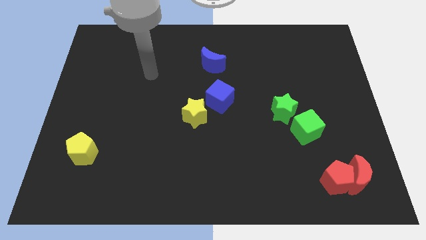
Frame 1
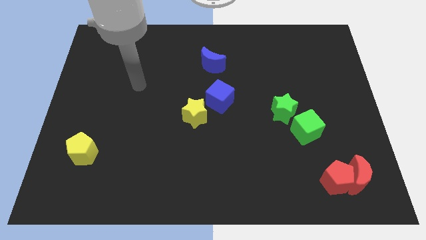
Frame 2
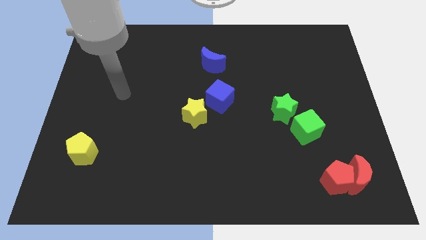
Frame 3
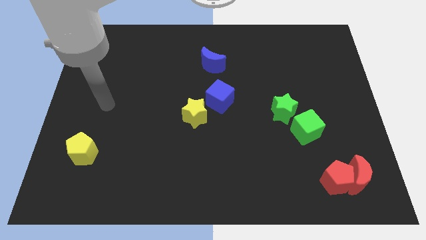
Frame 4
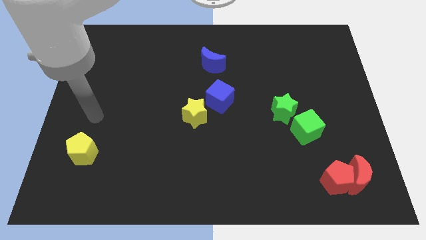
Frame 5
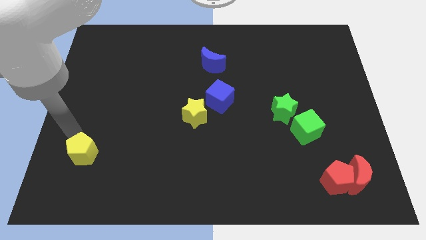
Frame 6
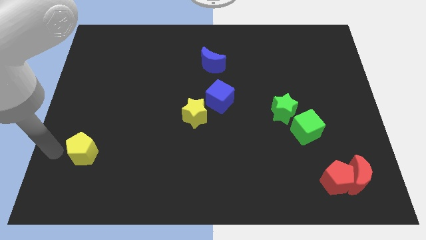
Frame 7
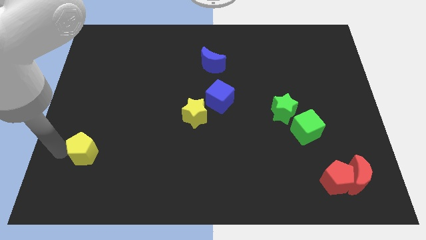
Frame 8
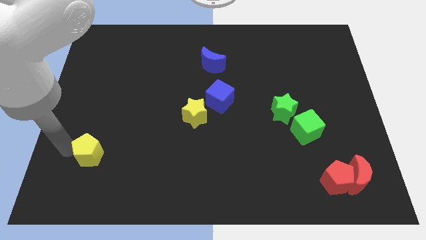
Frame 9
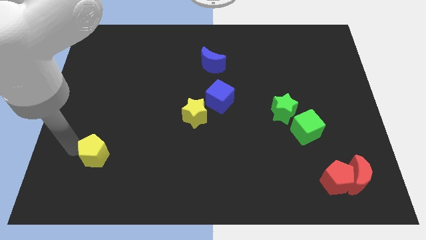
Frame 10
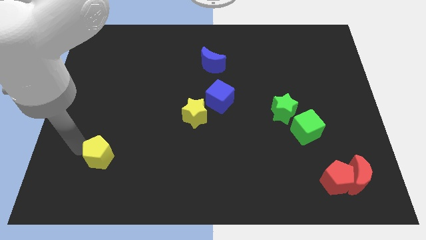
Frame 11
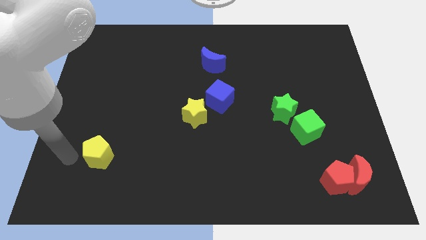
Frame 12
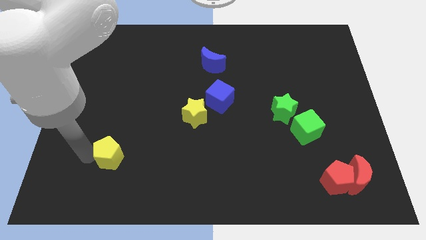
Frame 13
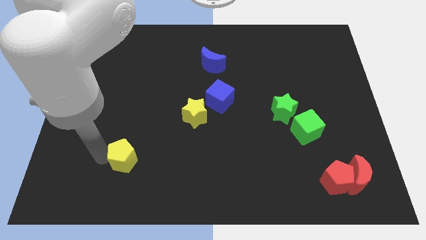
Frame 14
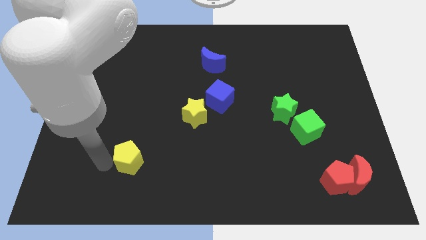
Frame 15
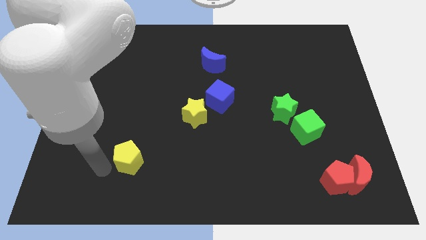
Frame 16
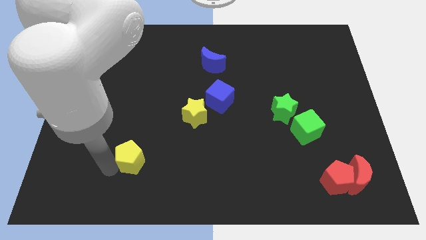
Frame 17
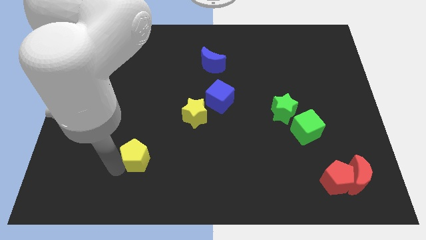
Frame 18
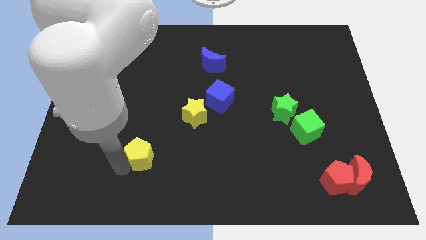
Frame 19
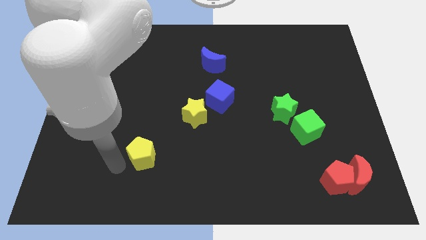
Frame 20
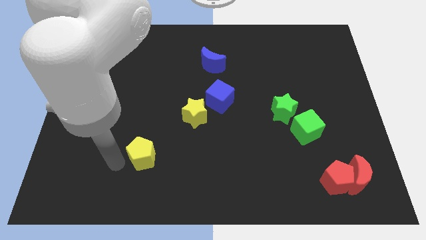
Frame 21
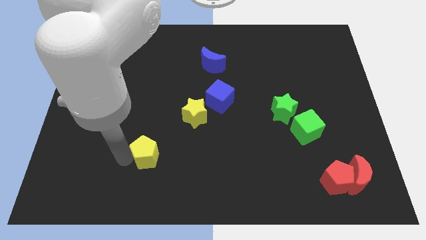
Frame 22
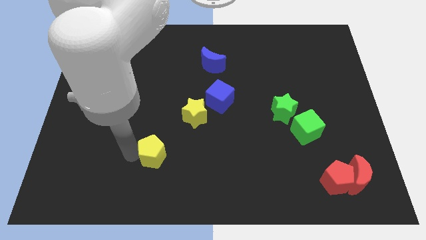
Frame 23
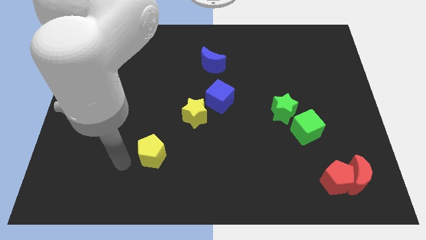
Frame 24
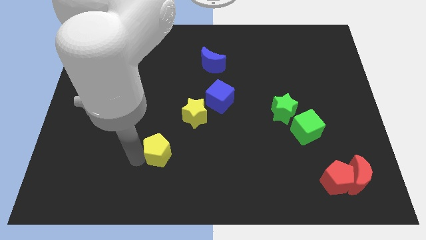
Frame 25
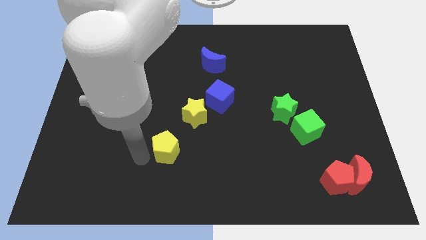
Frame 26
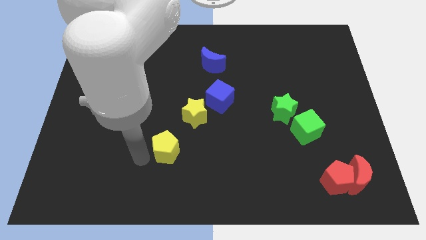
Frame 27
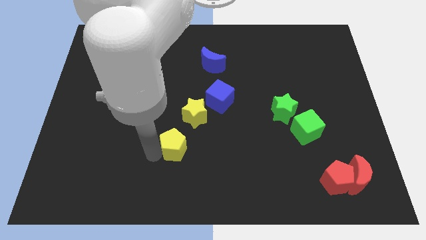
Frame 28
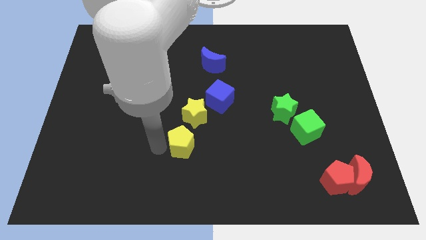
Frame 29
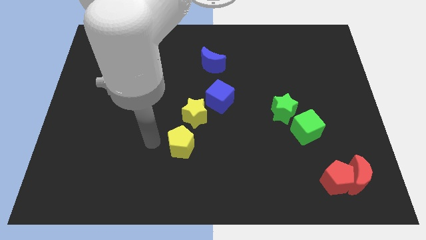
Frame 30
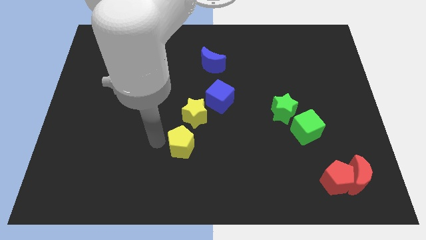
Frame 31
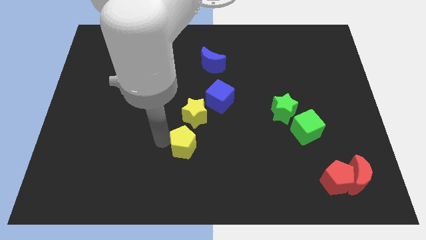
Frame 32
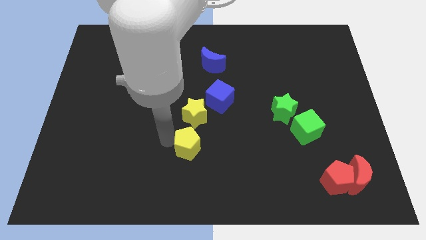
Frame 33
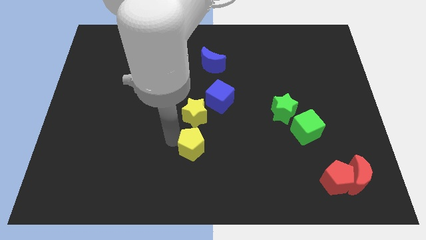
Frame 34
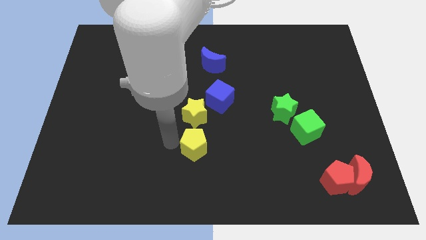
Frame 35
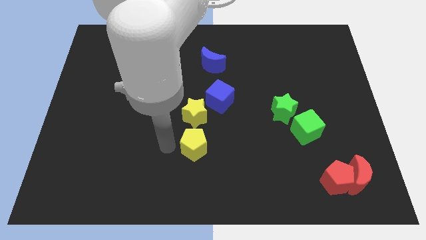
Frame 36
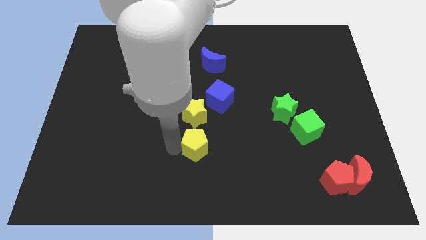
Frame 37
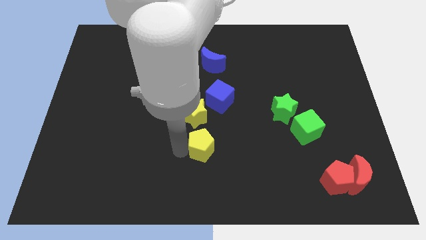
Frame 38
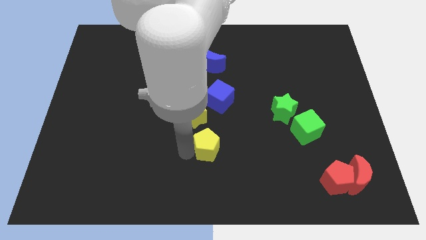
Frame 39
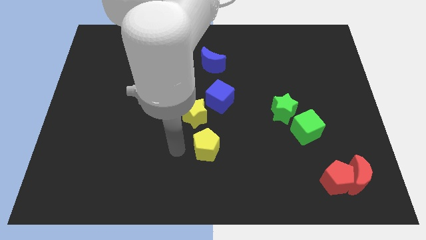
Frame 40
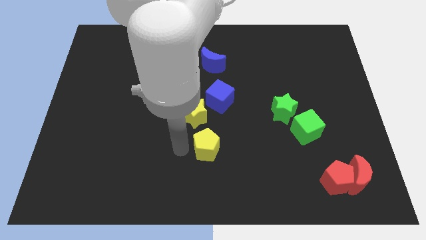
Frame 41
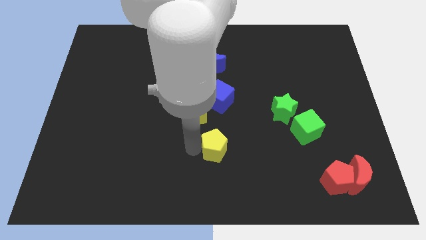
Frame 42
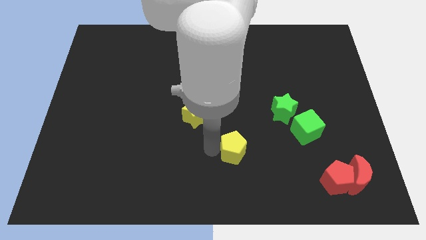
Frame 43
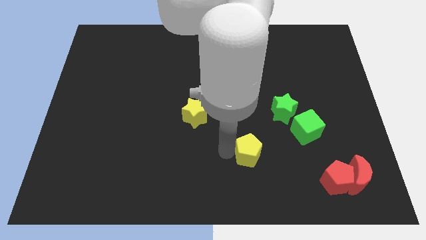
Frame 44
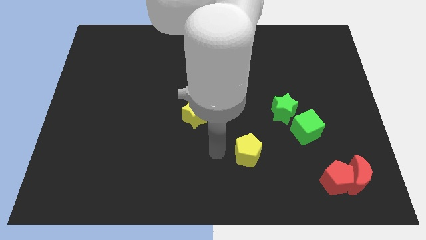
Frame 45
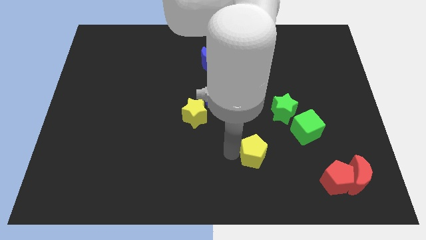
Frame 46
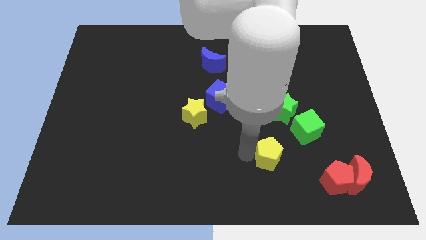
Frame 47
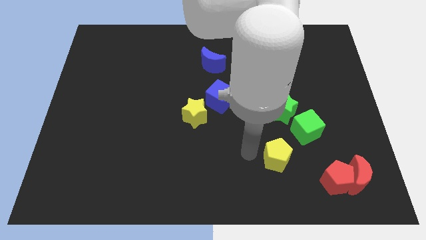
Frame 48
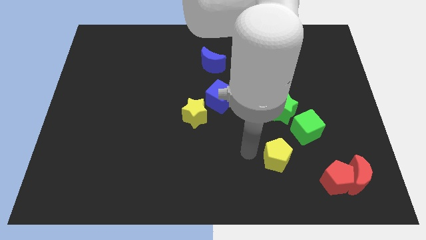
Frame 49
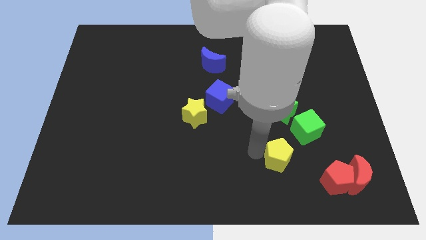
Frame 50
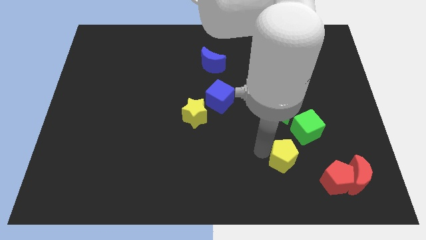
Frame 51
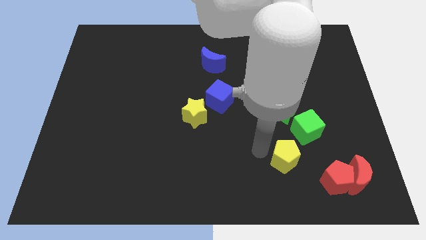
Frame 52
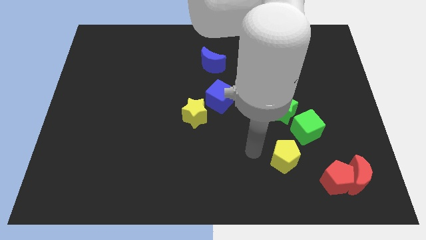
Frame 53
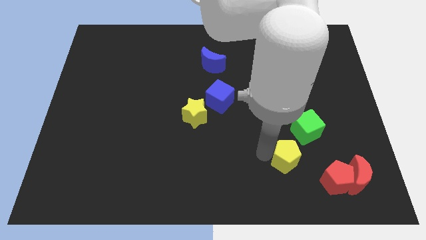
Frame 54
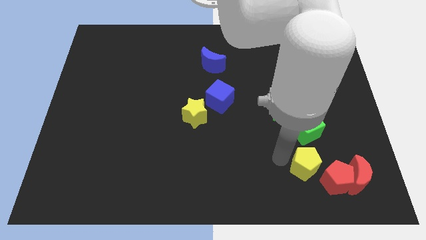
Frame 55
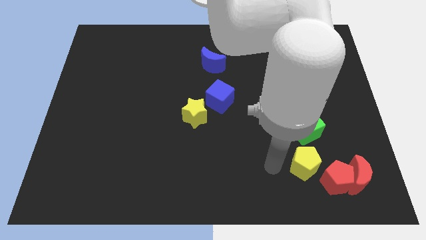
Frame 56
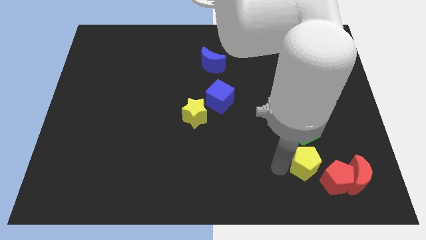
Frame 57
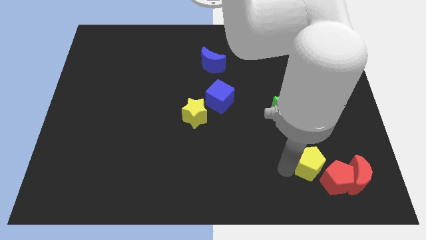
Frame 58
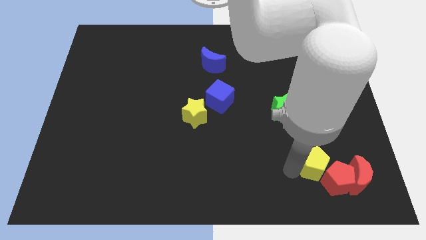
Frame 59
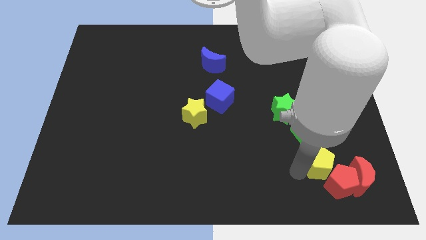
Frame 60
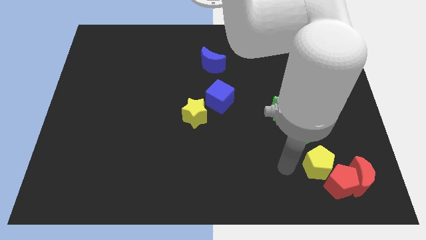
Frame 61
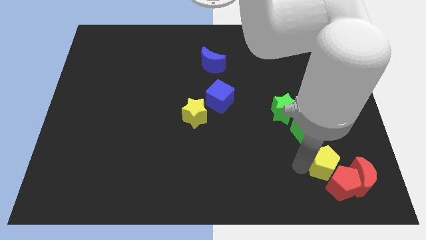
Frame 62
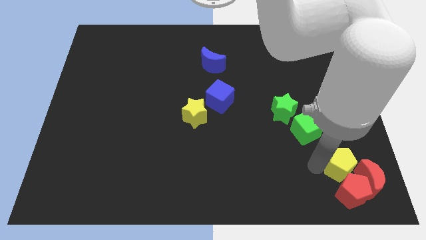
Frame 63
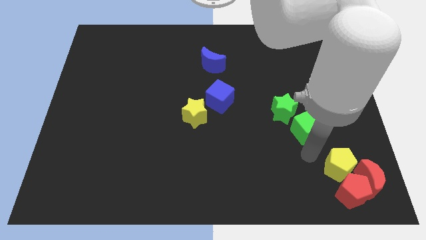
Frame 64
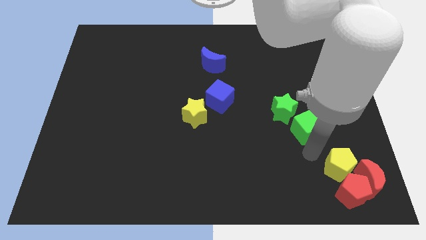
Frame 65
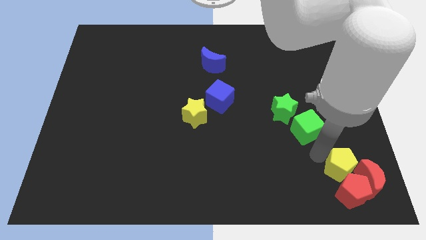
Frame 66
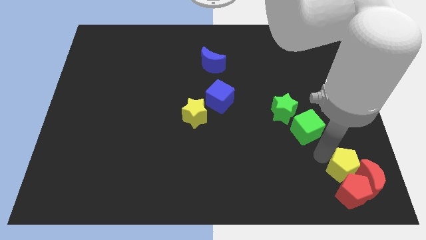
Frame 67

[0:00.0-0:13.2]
move the yellow pentagon close to the red moon

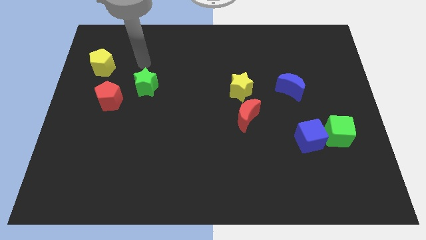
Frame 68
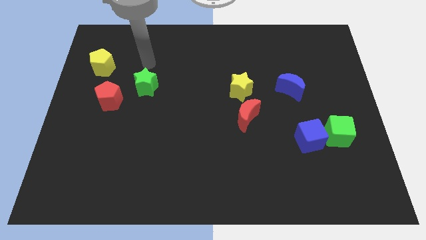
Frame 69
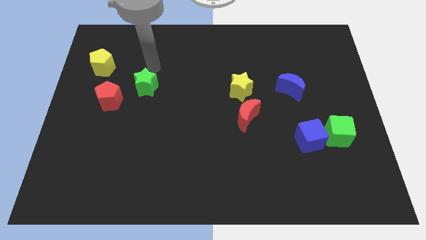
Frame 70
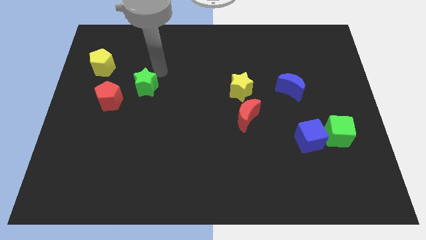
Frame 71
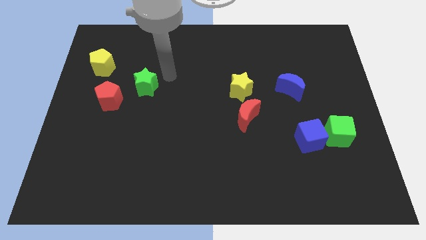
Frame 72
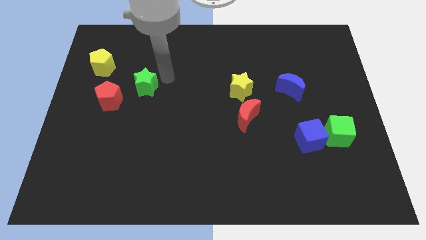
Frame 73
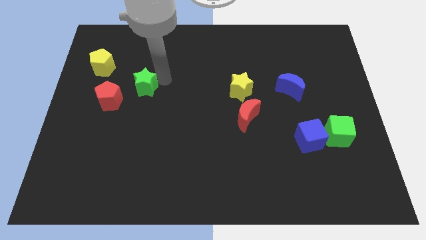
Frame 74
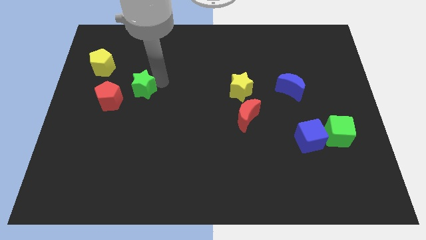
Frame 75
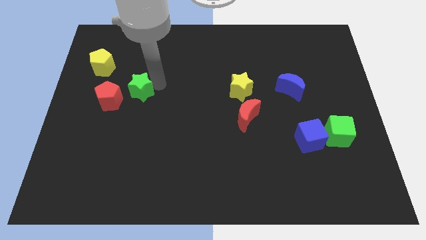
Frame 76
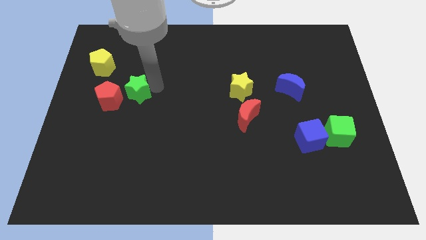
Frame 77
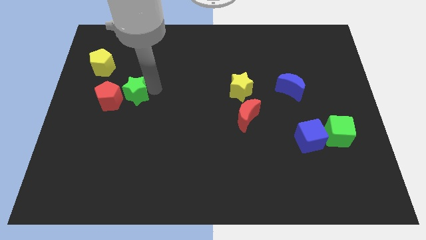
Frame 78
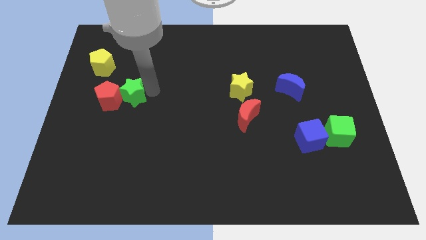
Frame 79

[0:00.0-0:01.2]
put the green star to the red pentagon
